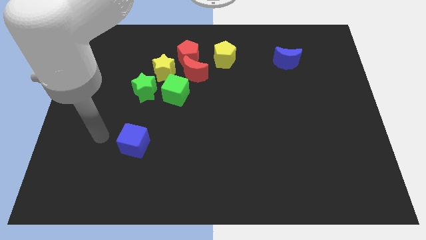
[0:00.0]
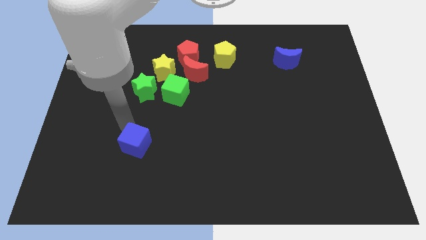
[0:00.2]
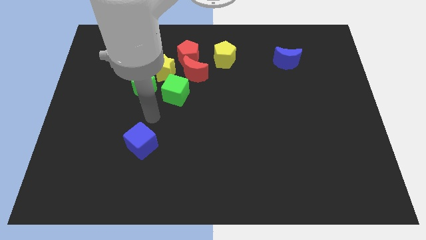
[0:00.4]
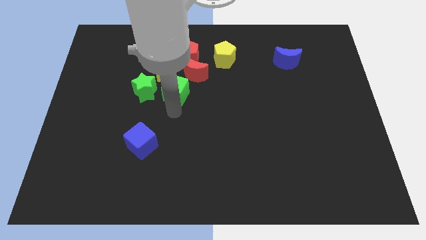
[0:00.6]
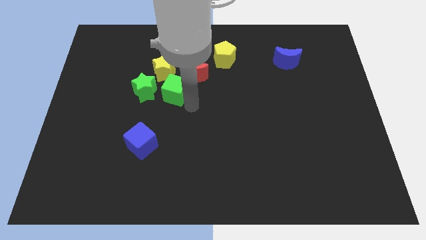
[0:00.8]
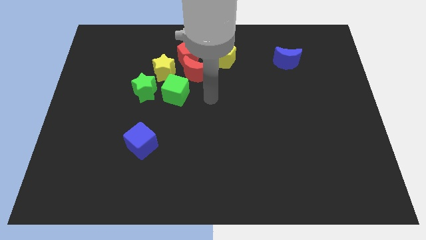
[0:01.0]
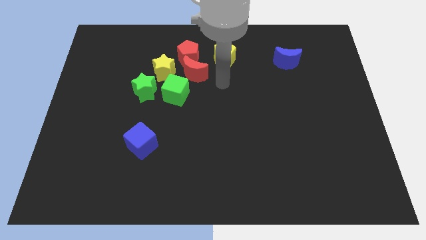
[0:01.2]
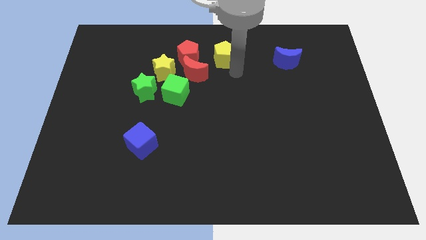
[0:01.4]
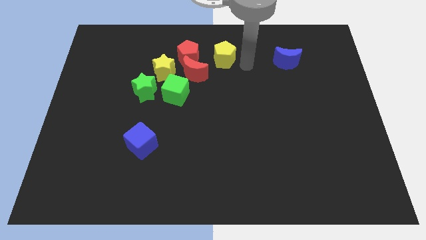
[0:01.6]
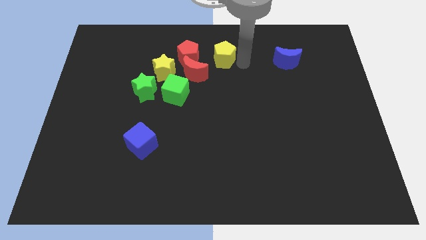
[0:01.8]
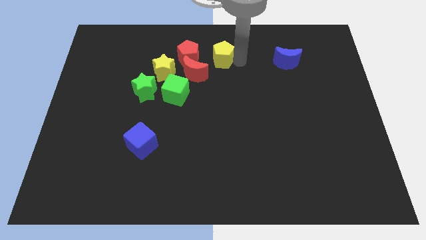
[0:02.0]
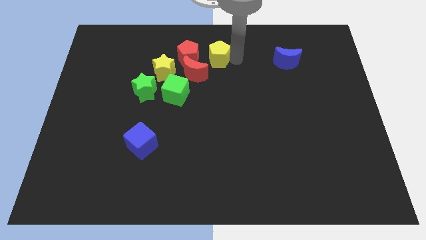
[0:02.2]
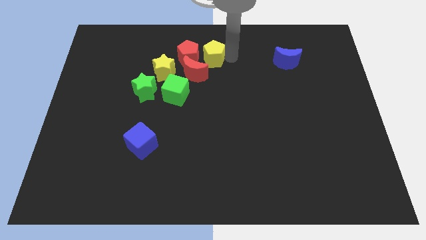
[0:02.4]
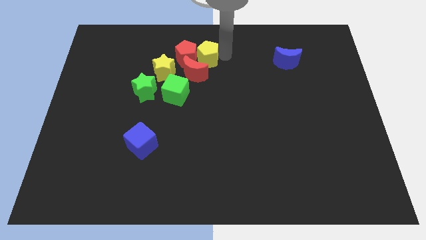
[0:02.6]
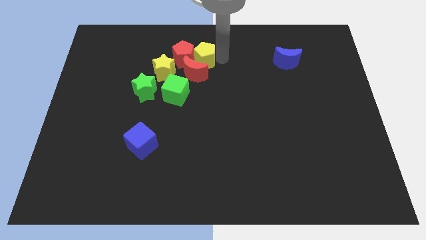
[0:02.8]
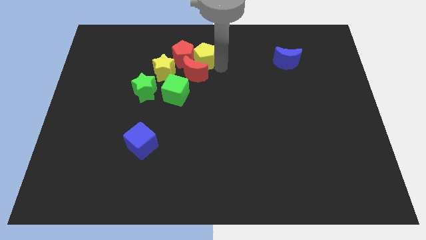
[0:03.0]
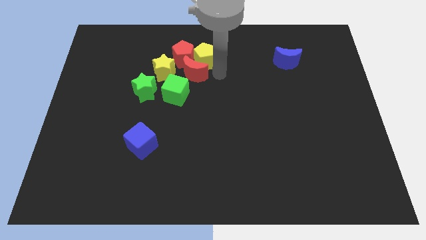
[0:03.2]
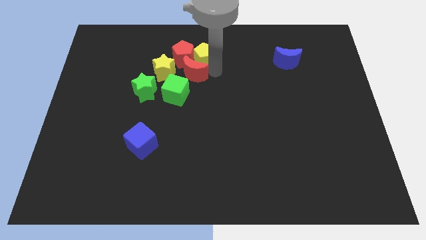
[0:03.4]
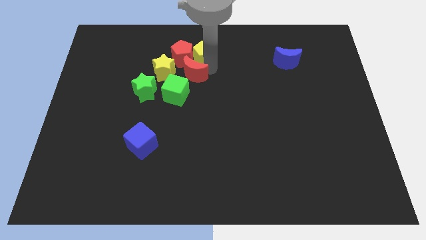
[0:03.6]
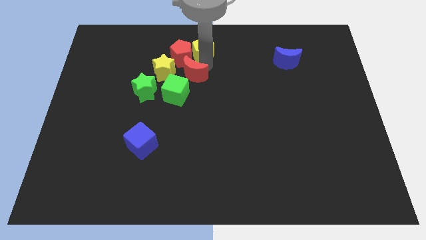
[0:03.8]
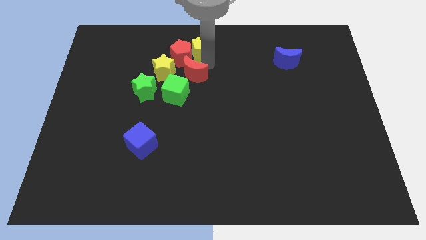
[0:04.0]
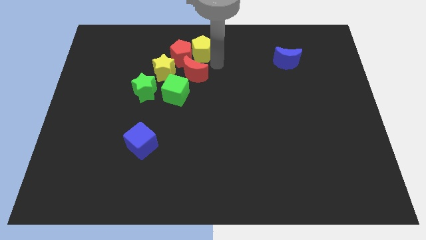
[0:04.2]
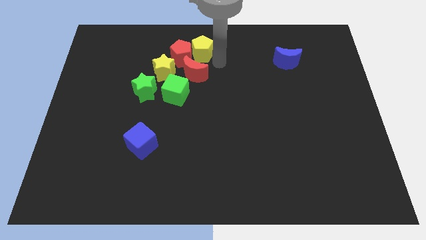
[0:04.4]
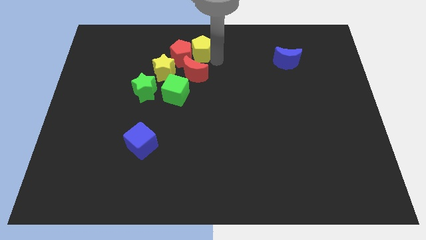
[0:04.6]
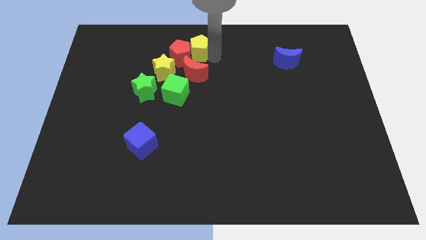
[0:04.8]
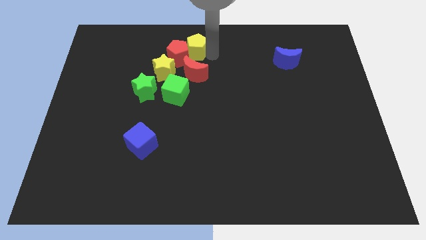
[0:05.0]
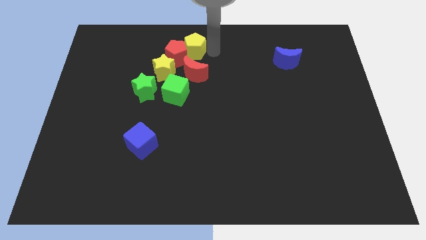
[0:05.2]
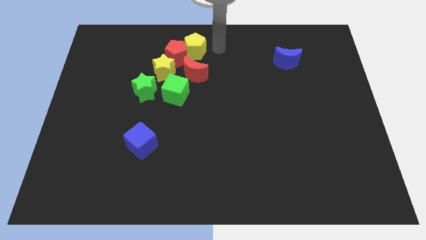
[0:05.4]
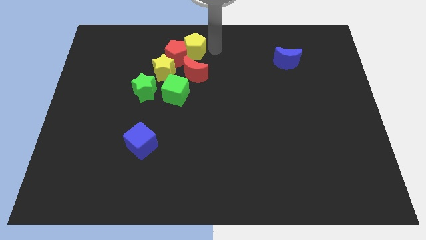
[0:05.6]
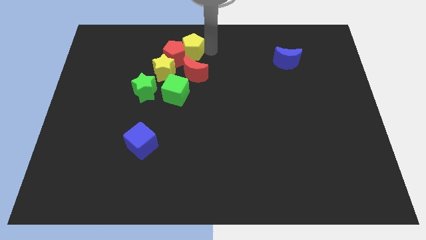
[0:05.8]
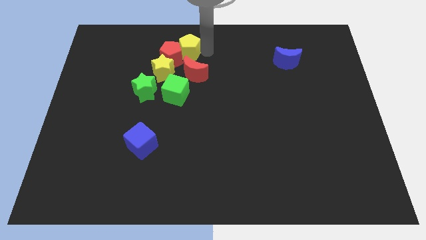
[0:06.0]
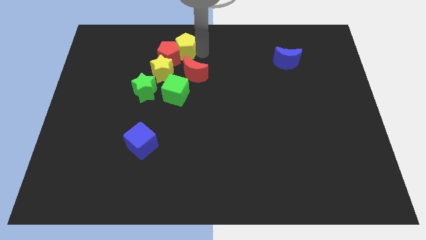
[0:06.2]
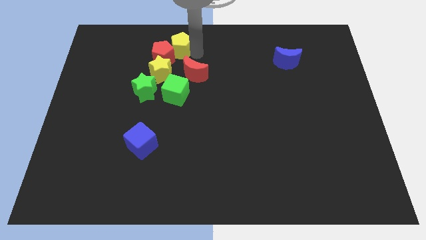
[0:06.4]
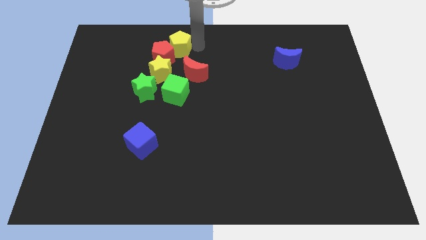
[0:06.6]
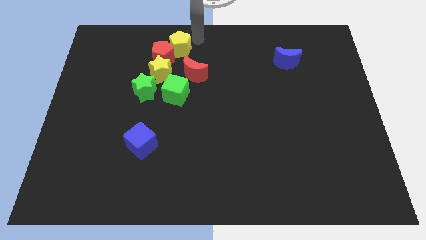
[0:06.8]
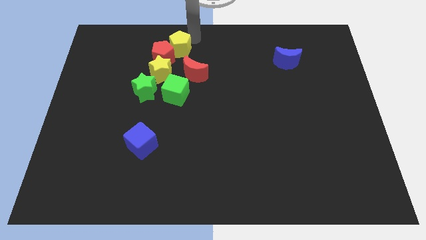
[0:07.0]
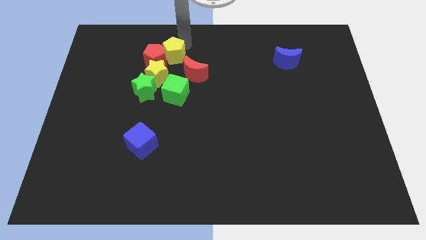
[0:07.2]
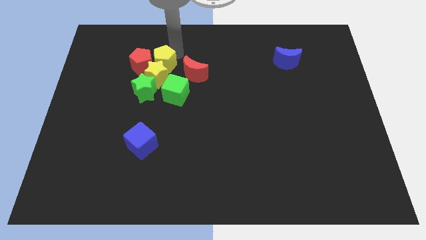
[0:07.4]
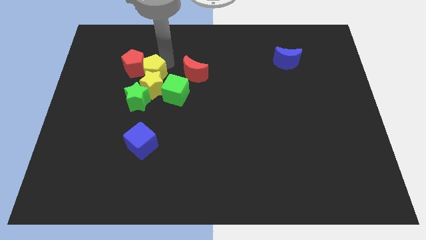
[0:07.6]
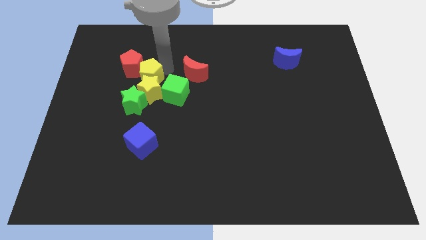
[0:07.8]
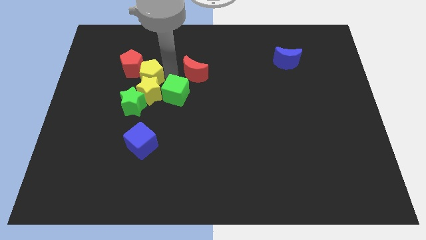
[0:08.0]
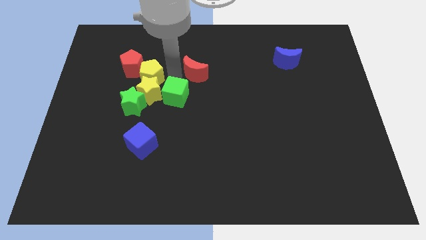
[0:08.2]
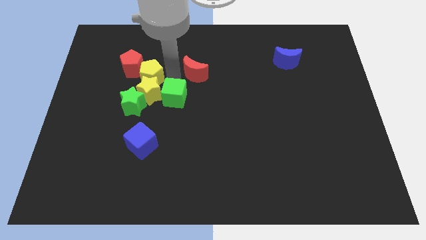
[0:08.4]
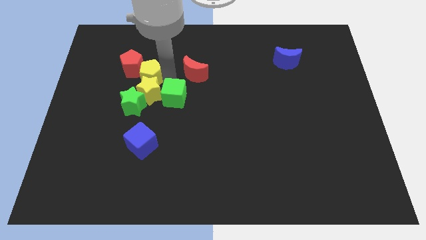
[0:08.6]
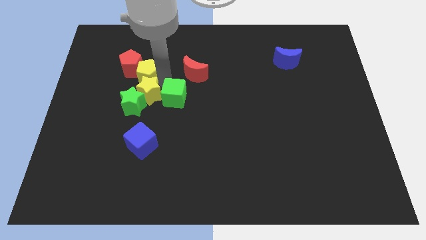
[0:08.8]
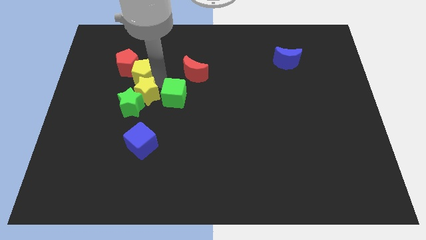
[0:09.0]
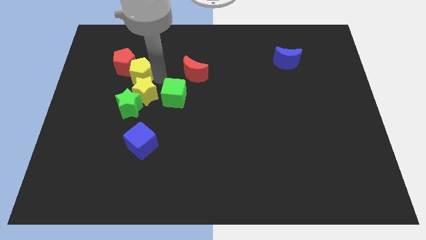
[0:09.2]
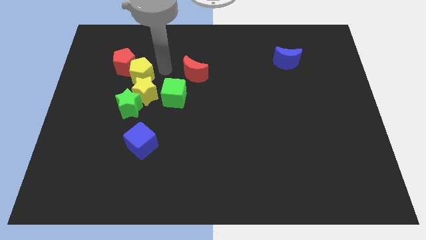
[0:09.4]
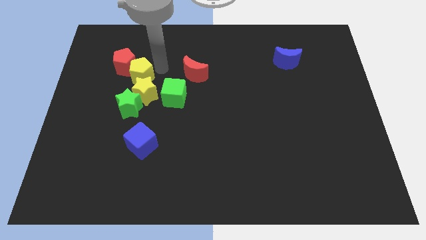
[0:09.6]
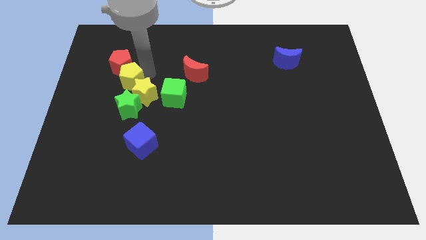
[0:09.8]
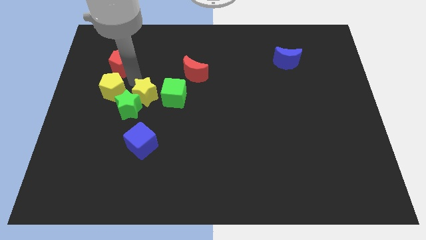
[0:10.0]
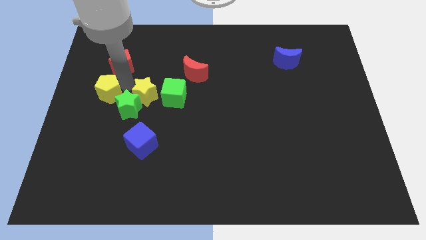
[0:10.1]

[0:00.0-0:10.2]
slide the yellow pentagon to the left side of the board

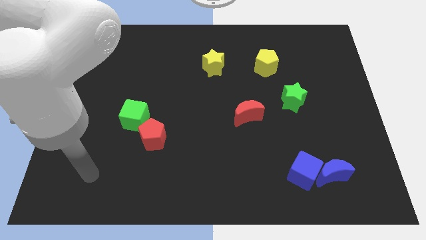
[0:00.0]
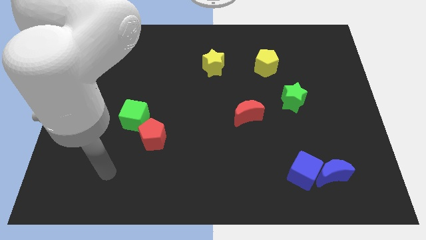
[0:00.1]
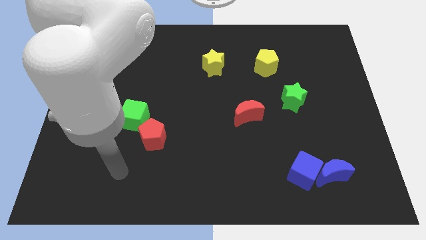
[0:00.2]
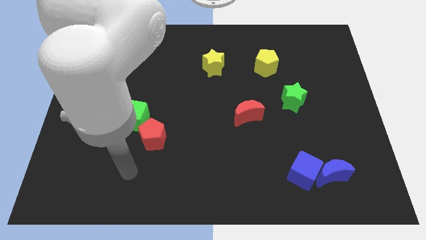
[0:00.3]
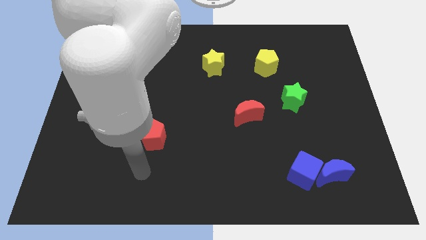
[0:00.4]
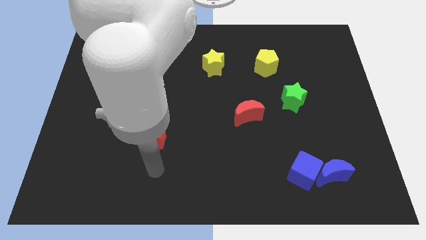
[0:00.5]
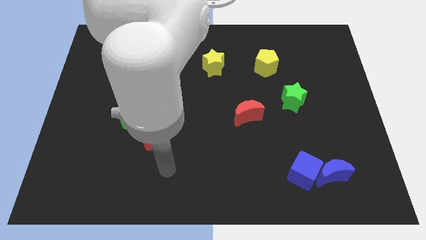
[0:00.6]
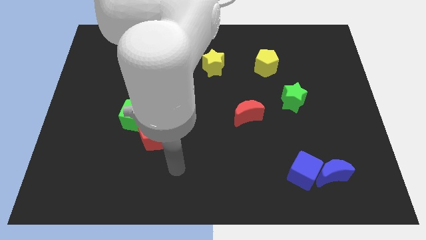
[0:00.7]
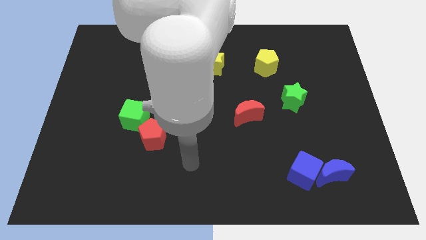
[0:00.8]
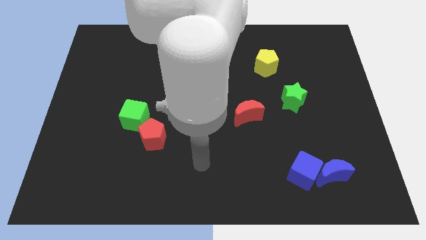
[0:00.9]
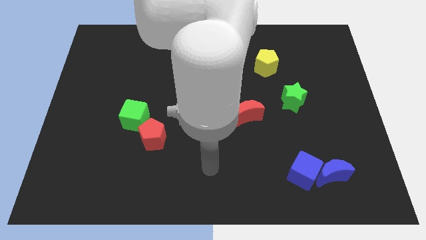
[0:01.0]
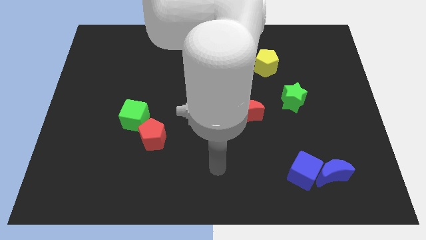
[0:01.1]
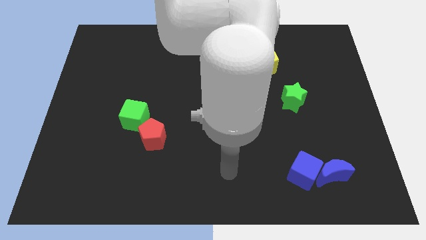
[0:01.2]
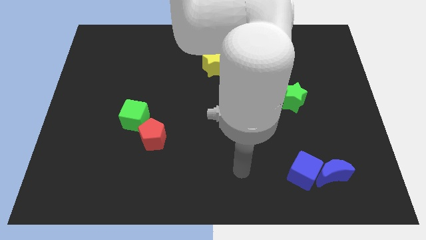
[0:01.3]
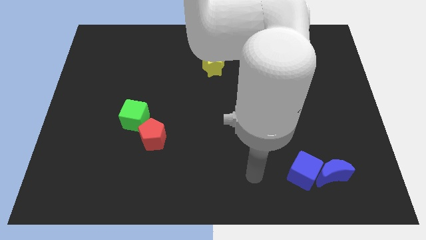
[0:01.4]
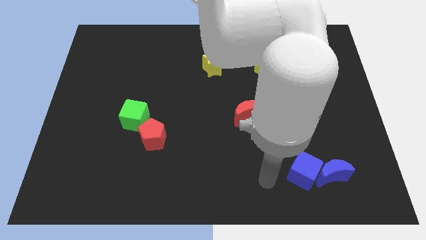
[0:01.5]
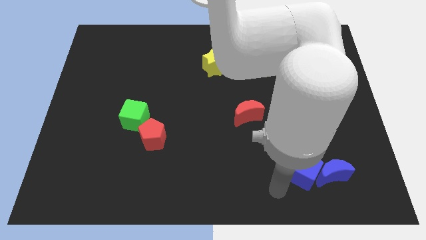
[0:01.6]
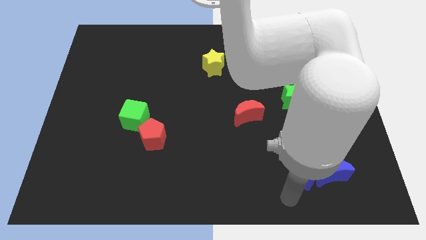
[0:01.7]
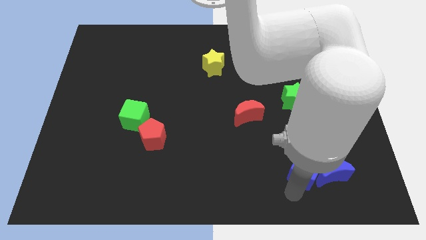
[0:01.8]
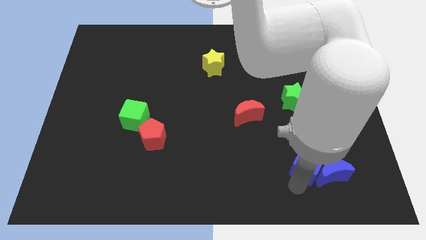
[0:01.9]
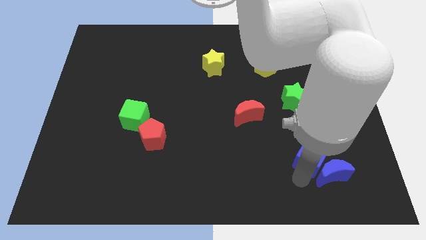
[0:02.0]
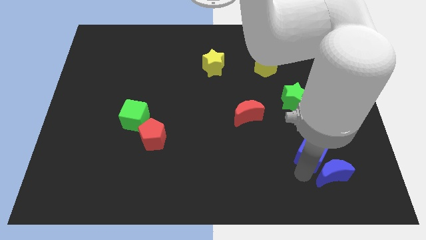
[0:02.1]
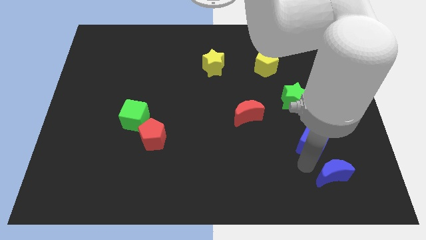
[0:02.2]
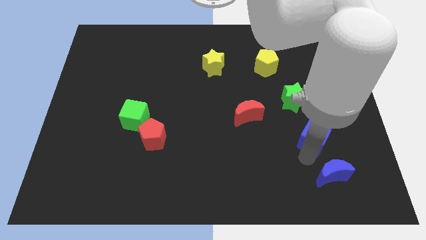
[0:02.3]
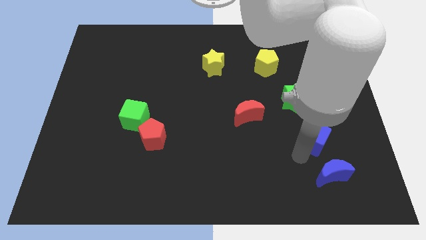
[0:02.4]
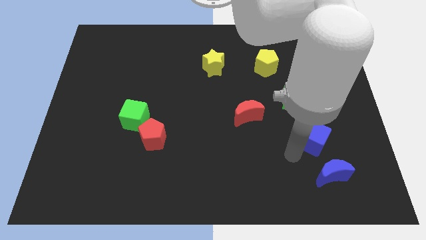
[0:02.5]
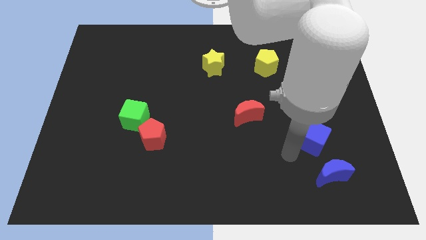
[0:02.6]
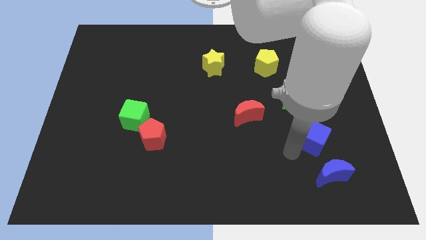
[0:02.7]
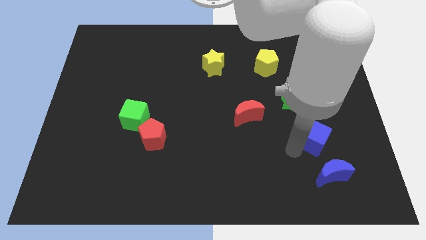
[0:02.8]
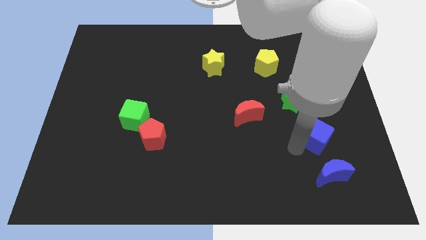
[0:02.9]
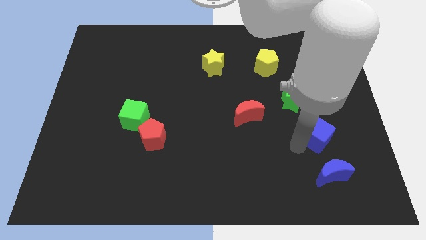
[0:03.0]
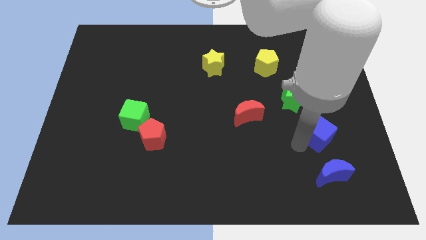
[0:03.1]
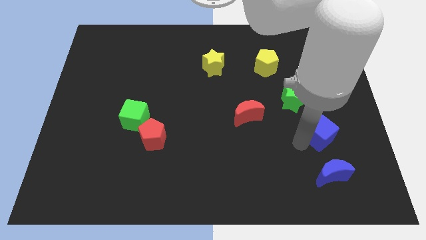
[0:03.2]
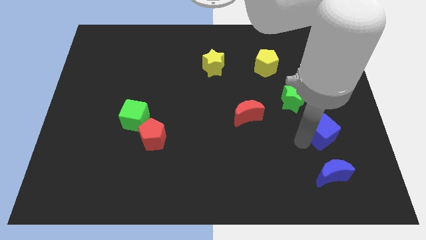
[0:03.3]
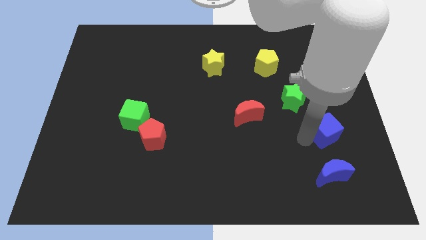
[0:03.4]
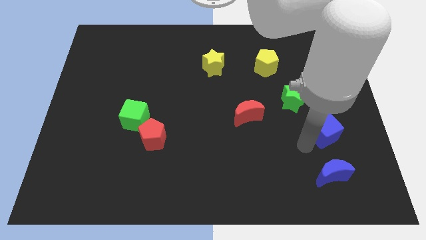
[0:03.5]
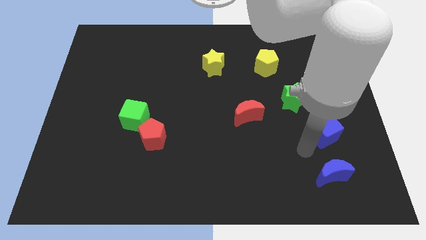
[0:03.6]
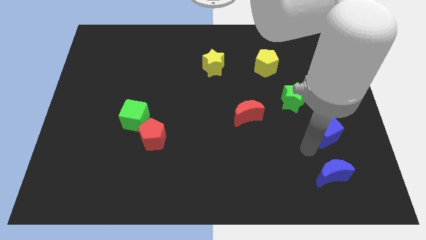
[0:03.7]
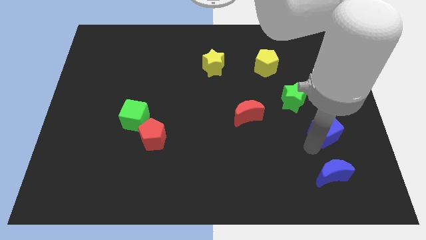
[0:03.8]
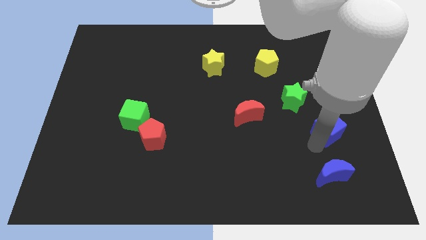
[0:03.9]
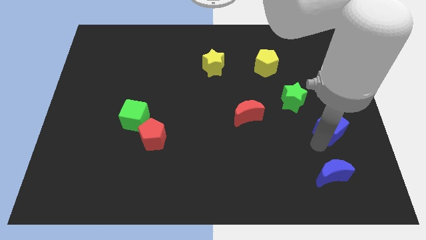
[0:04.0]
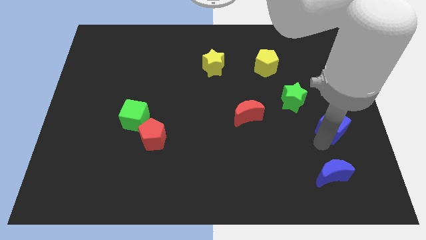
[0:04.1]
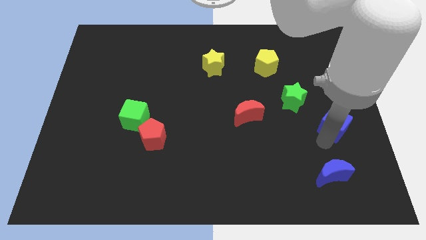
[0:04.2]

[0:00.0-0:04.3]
move the blue cube to the center right
